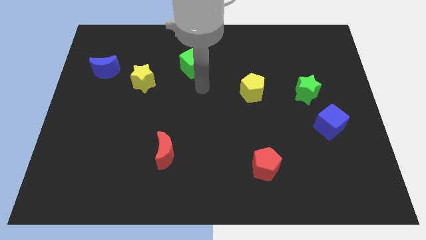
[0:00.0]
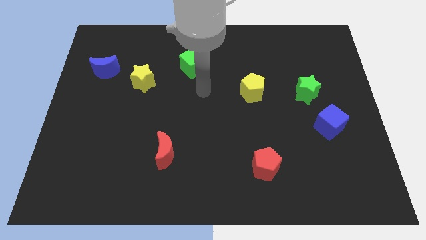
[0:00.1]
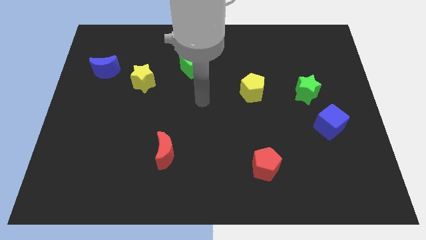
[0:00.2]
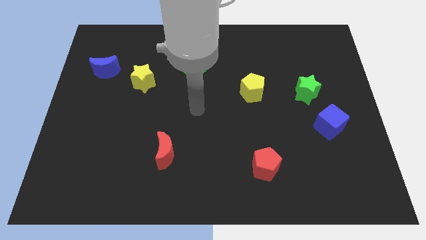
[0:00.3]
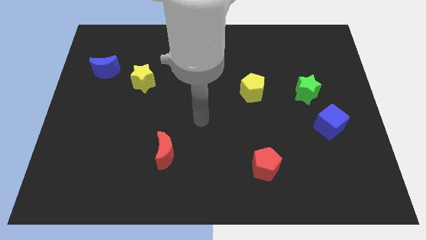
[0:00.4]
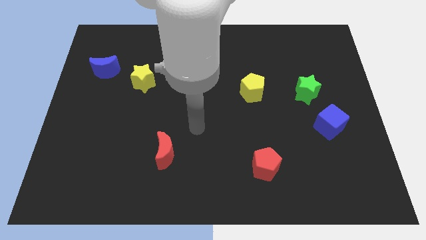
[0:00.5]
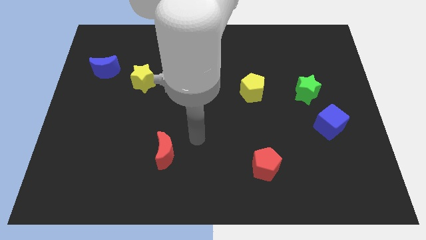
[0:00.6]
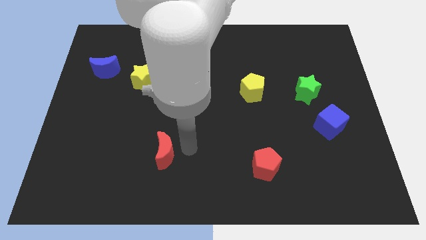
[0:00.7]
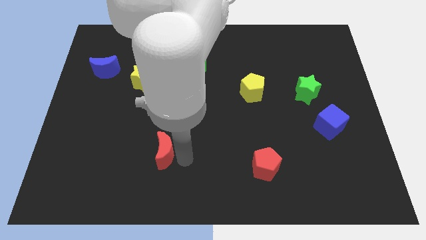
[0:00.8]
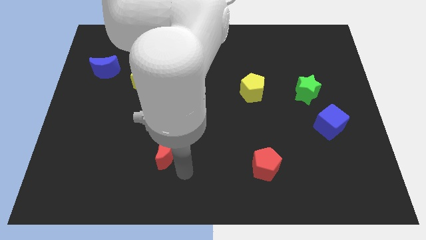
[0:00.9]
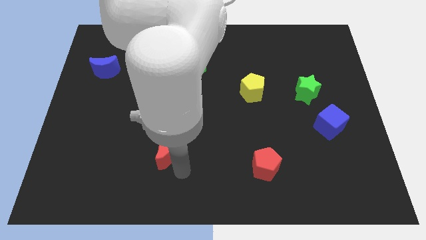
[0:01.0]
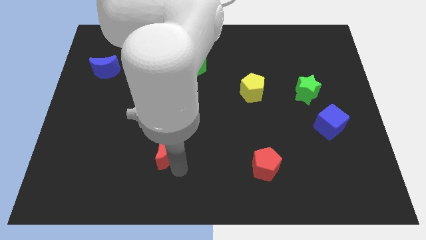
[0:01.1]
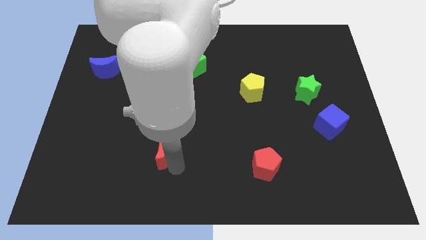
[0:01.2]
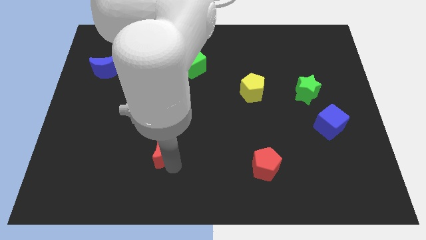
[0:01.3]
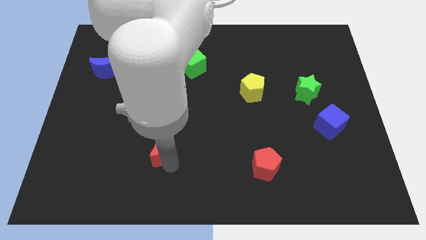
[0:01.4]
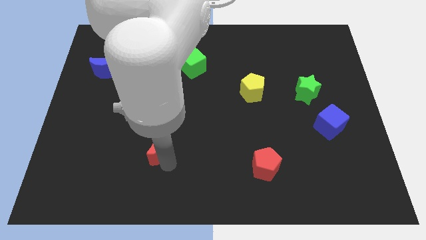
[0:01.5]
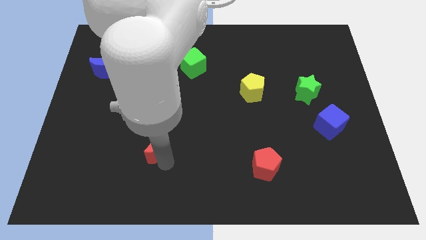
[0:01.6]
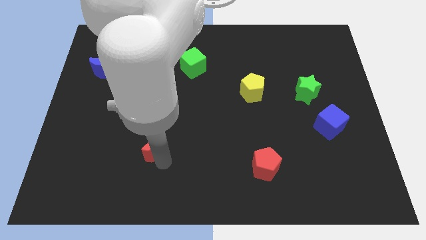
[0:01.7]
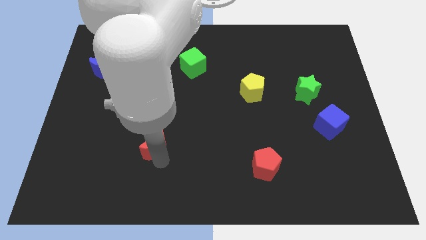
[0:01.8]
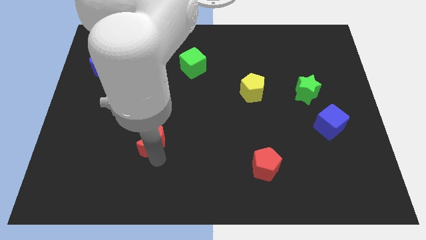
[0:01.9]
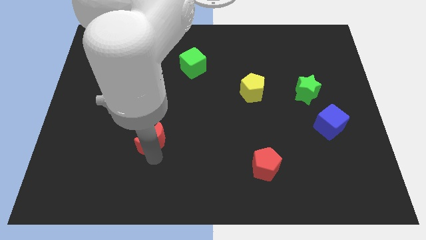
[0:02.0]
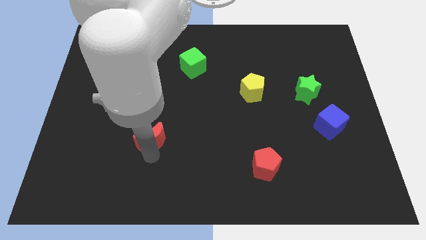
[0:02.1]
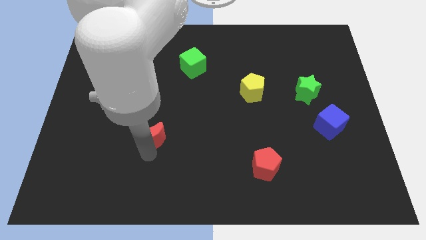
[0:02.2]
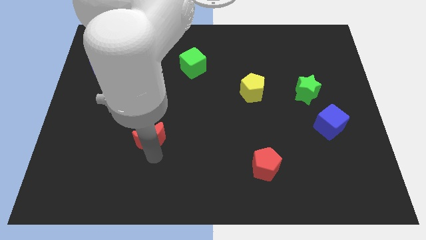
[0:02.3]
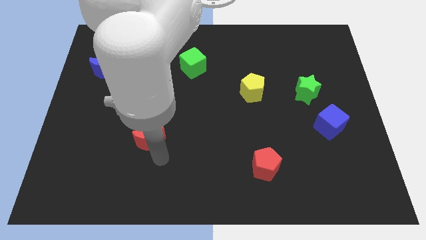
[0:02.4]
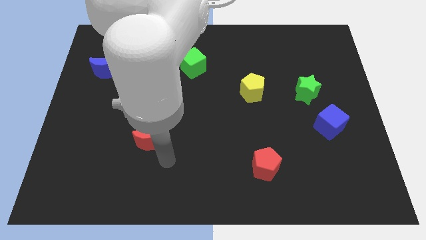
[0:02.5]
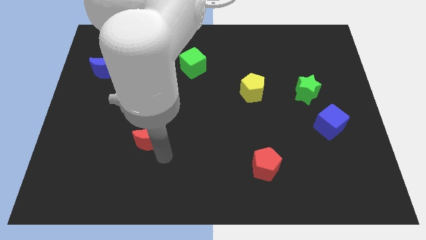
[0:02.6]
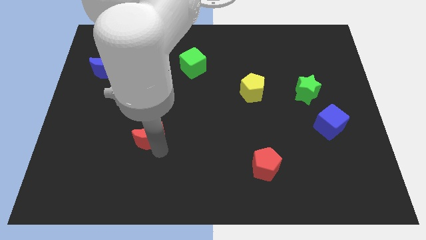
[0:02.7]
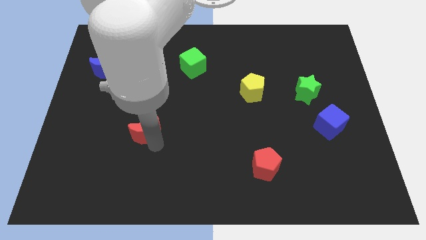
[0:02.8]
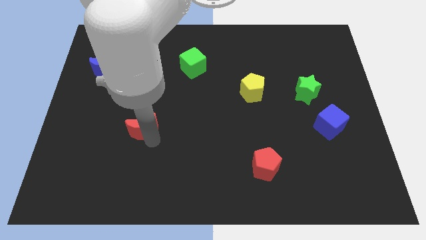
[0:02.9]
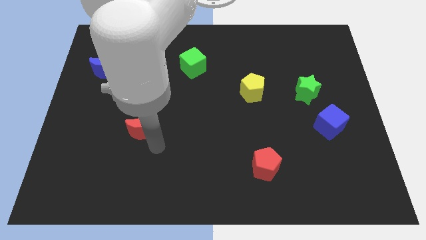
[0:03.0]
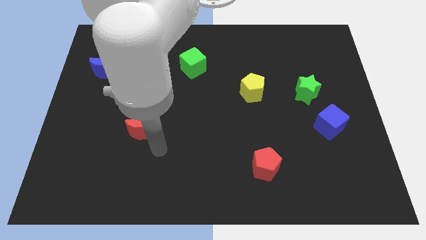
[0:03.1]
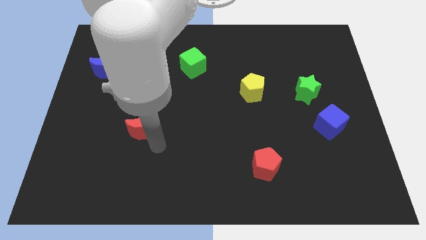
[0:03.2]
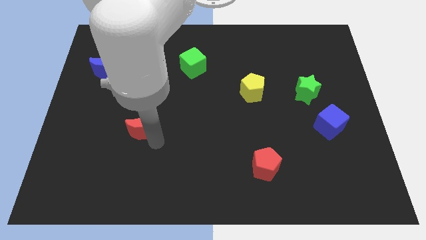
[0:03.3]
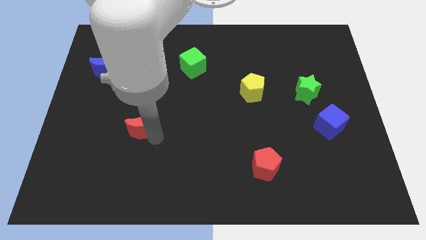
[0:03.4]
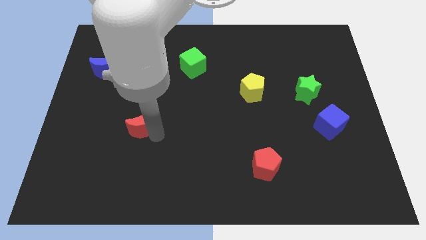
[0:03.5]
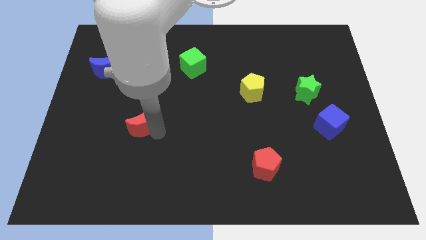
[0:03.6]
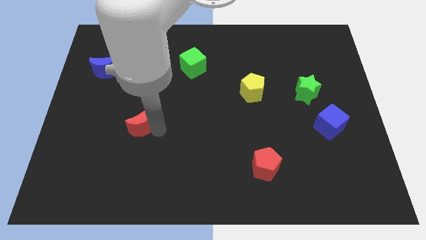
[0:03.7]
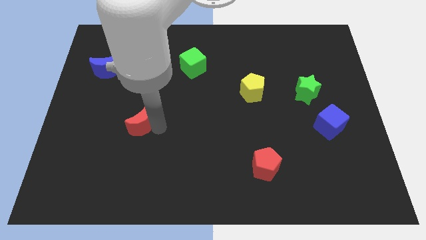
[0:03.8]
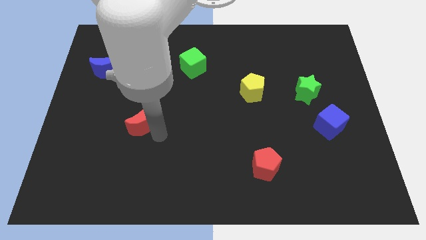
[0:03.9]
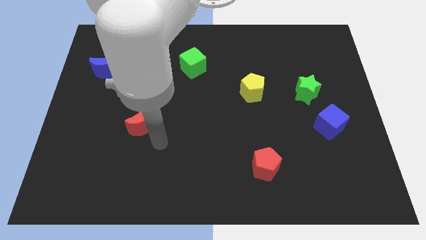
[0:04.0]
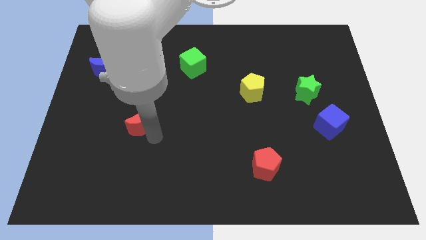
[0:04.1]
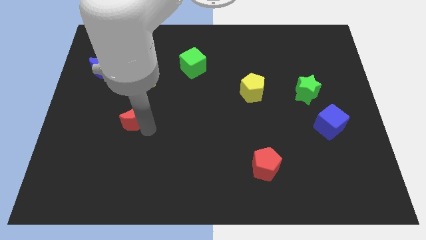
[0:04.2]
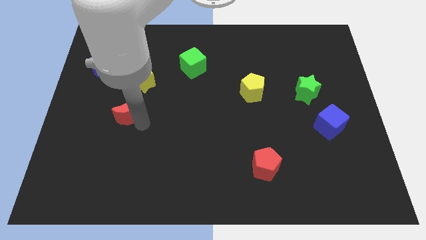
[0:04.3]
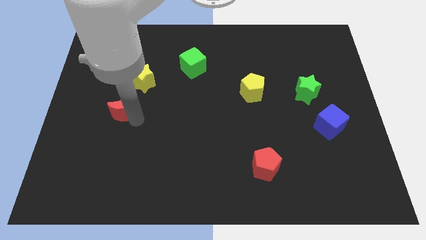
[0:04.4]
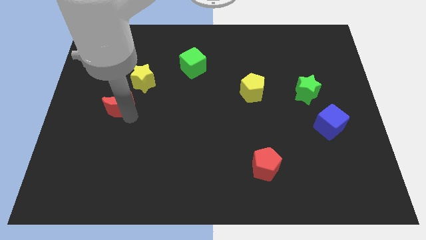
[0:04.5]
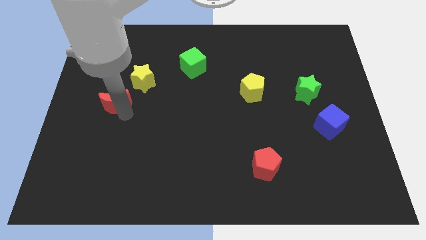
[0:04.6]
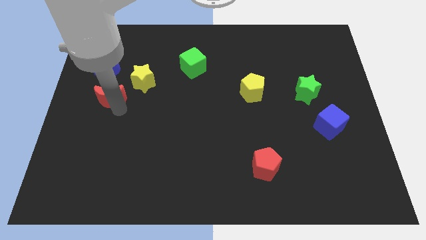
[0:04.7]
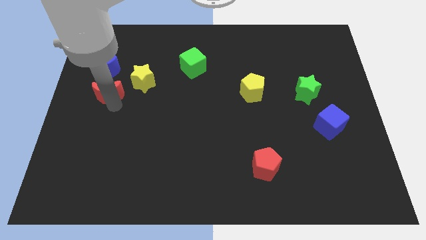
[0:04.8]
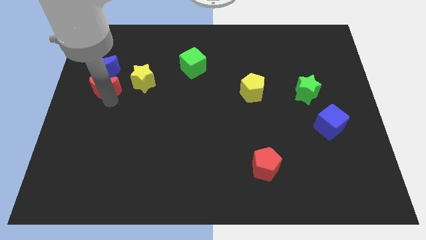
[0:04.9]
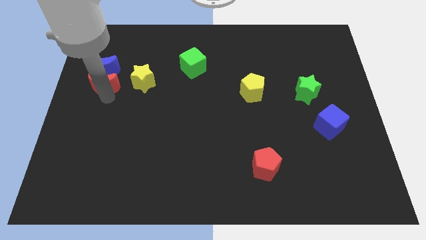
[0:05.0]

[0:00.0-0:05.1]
slide the red moon towards the blue moon

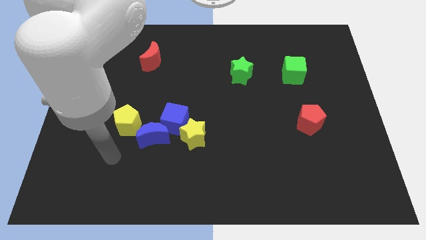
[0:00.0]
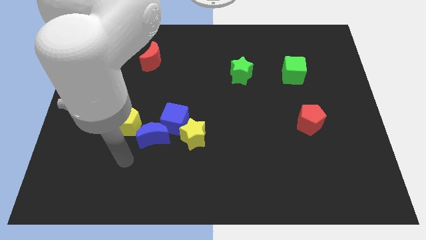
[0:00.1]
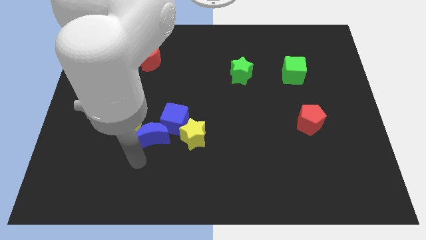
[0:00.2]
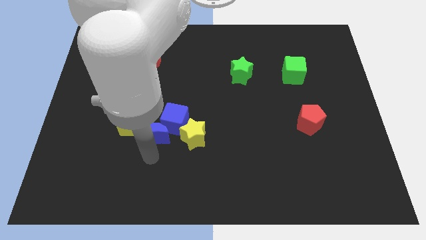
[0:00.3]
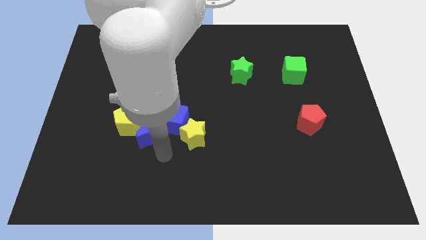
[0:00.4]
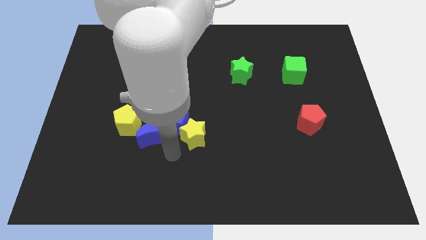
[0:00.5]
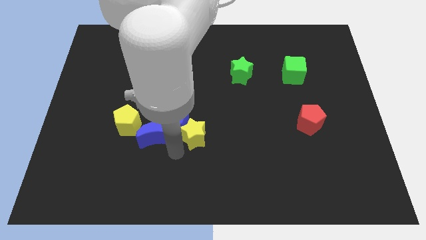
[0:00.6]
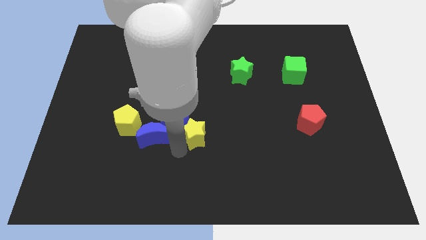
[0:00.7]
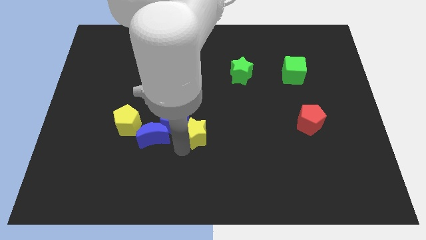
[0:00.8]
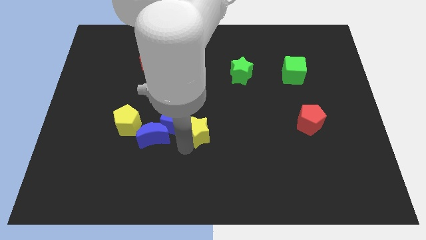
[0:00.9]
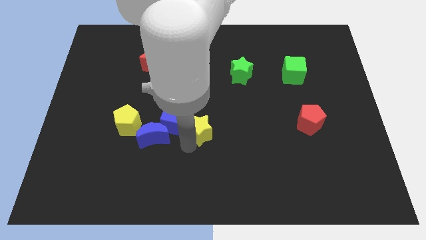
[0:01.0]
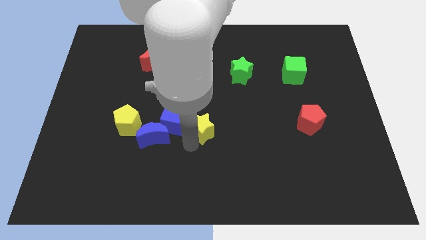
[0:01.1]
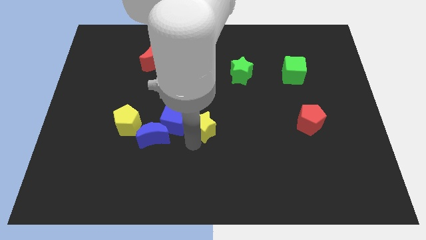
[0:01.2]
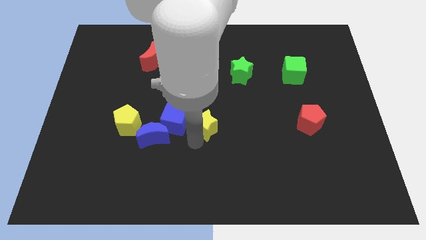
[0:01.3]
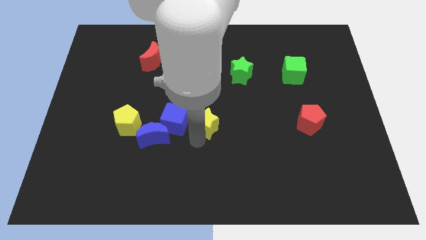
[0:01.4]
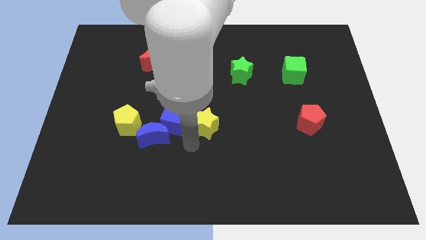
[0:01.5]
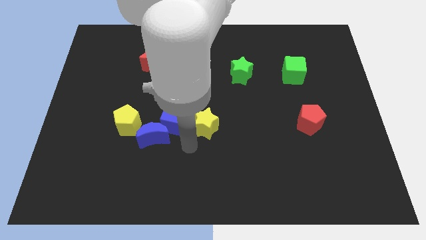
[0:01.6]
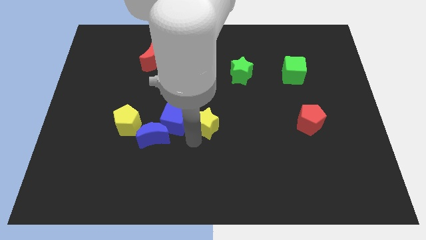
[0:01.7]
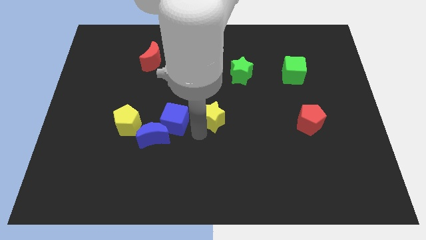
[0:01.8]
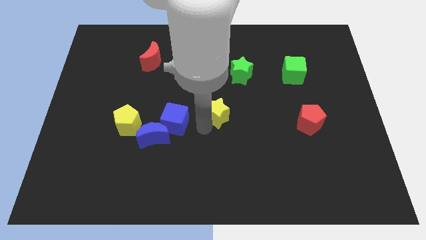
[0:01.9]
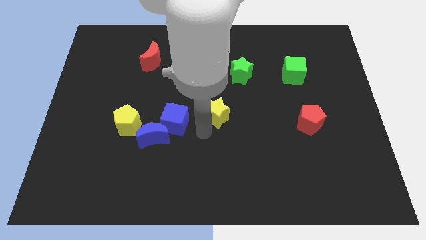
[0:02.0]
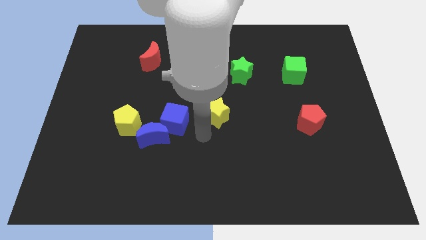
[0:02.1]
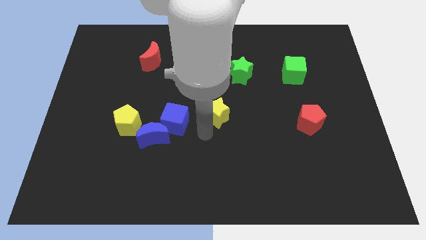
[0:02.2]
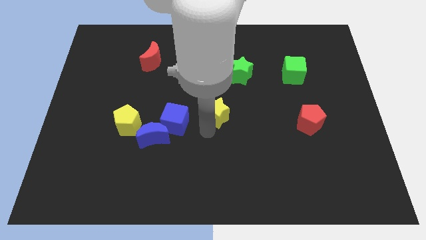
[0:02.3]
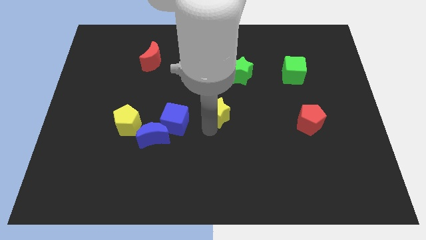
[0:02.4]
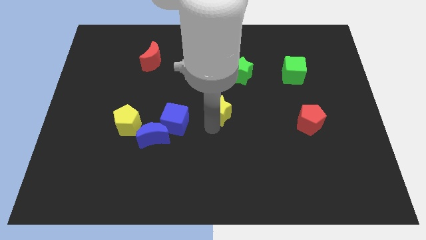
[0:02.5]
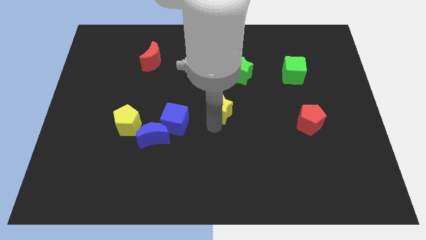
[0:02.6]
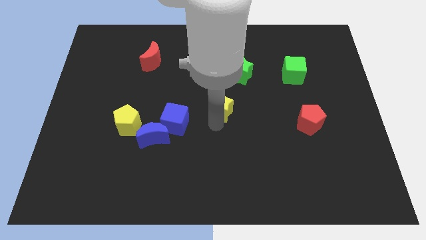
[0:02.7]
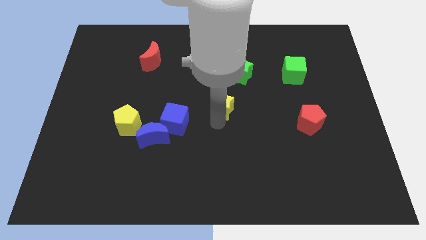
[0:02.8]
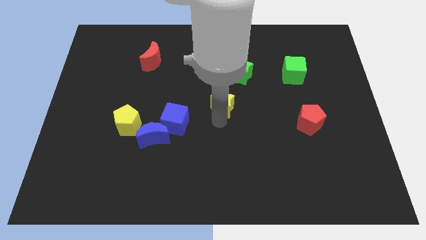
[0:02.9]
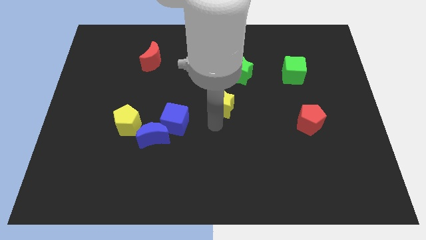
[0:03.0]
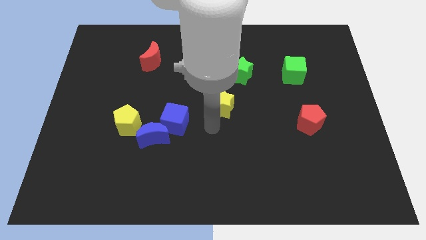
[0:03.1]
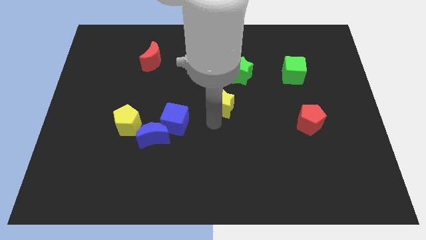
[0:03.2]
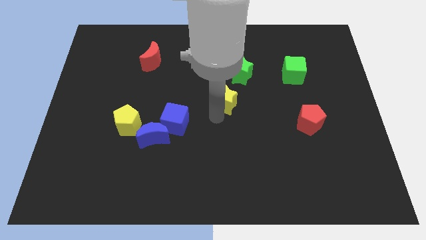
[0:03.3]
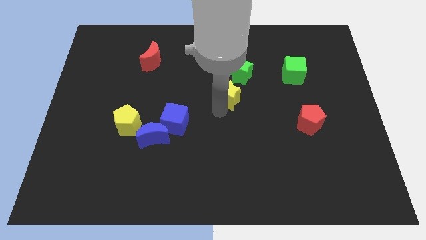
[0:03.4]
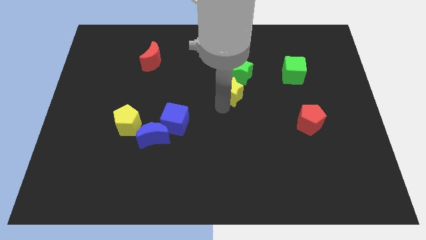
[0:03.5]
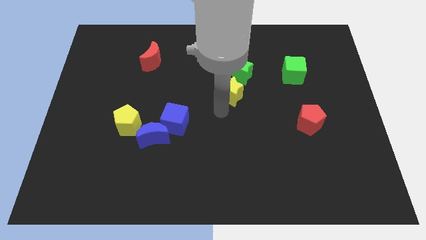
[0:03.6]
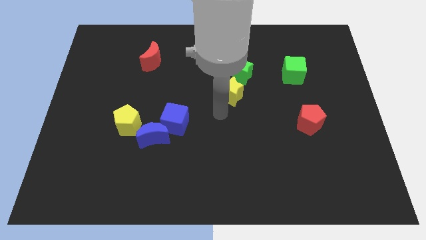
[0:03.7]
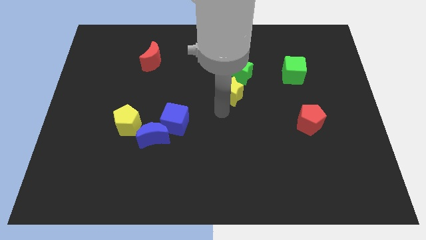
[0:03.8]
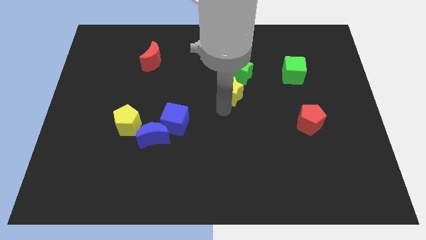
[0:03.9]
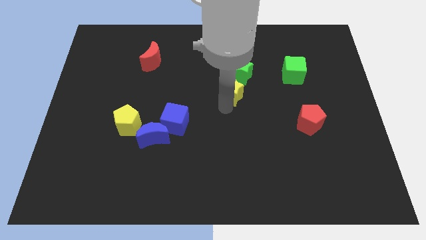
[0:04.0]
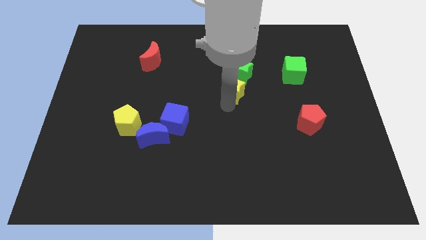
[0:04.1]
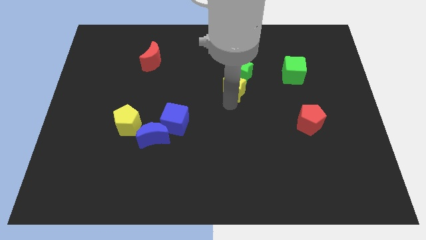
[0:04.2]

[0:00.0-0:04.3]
push the yellow star towards the green star
